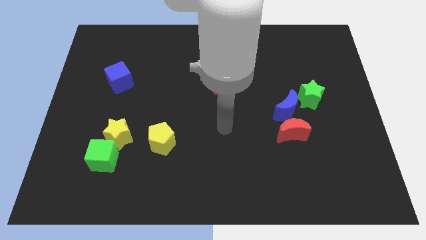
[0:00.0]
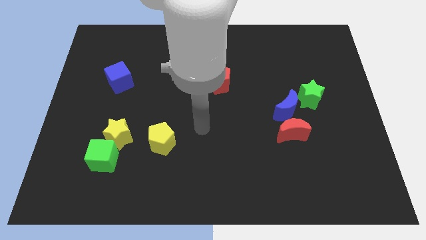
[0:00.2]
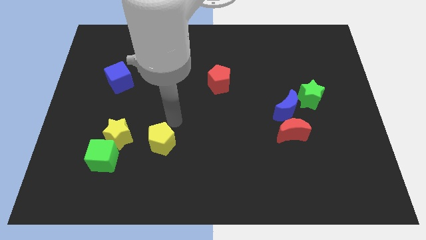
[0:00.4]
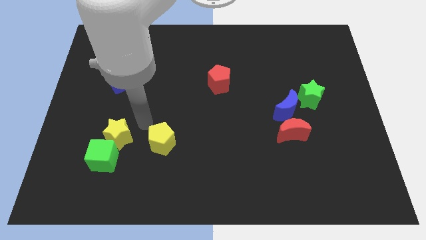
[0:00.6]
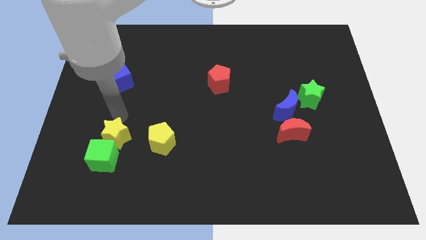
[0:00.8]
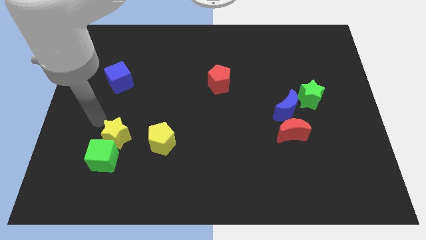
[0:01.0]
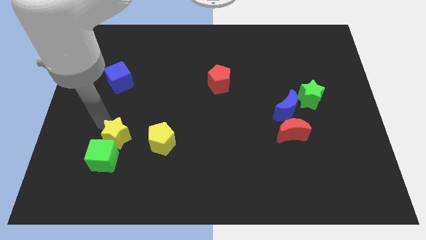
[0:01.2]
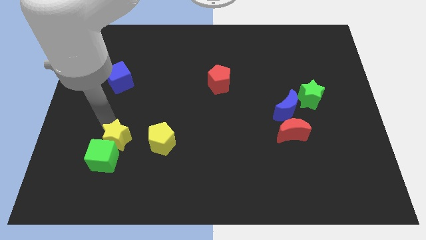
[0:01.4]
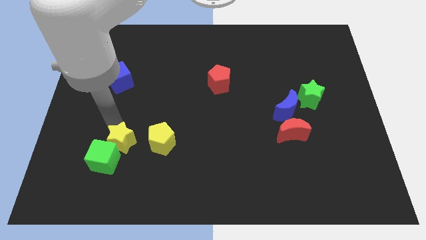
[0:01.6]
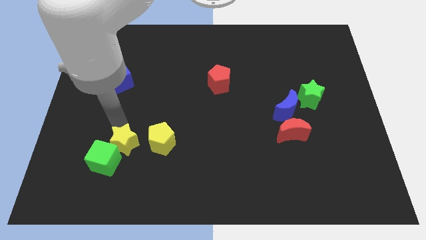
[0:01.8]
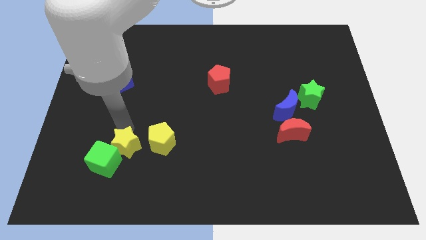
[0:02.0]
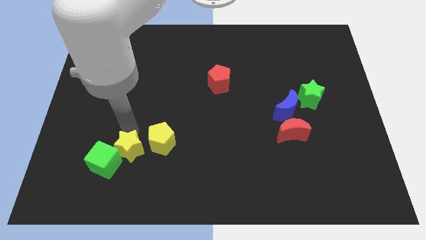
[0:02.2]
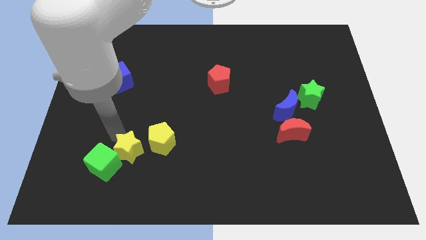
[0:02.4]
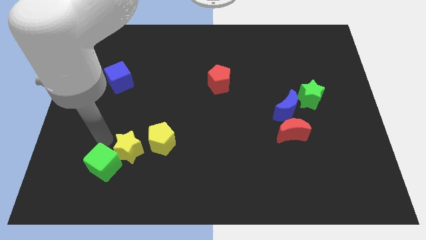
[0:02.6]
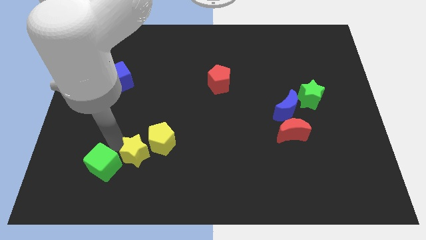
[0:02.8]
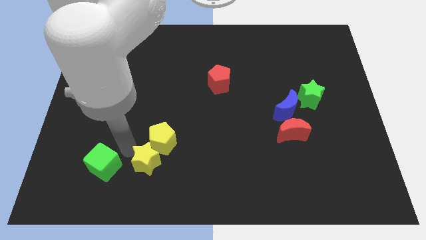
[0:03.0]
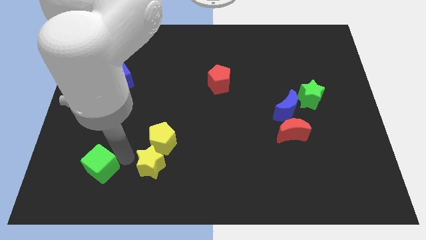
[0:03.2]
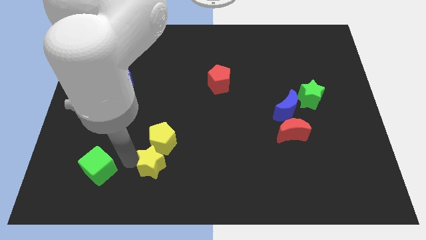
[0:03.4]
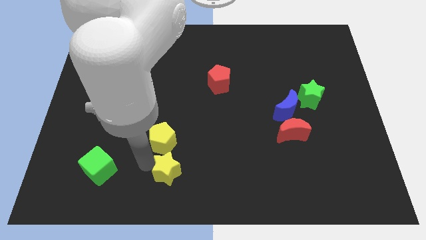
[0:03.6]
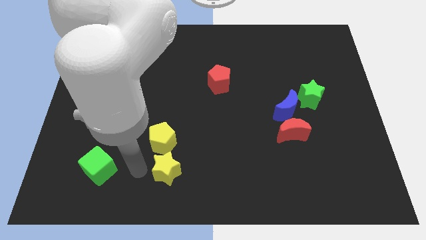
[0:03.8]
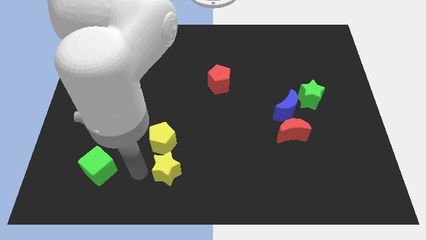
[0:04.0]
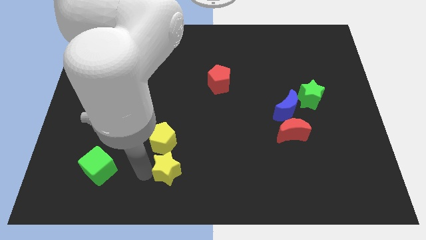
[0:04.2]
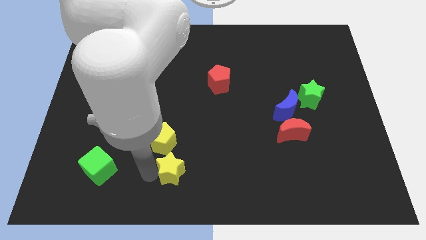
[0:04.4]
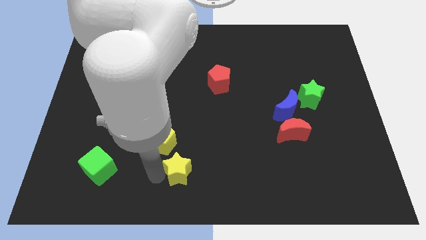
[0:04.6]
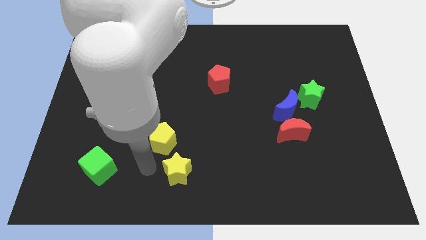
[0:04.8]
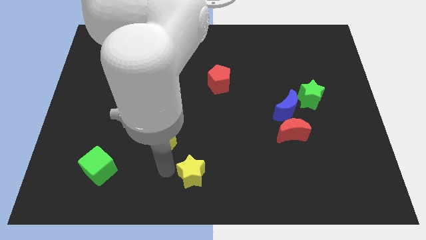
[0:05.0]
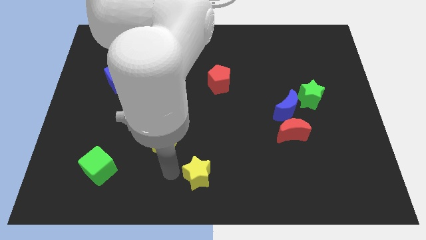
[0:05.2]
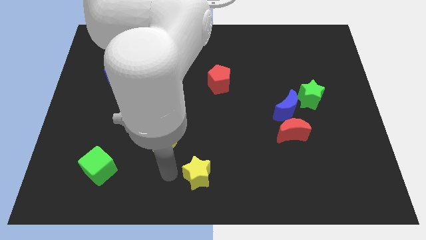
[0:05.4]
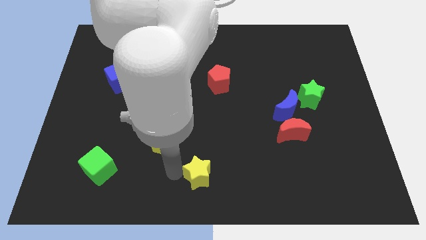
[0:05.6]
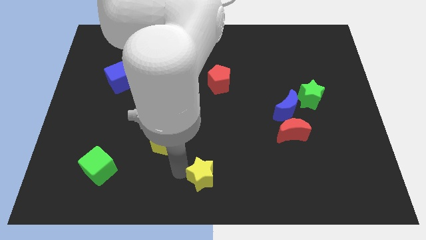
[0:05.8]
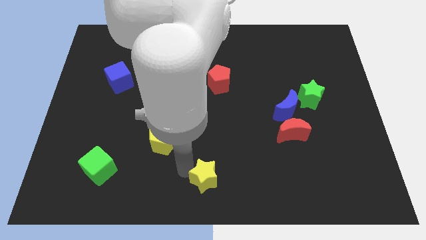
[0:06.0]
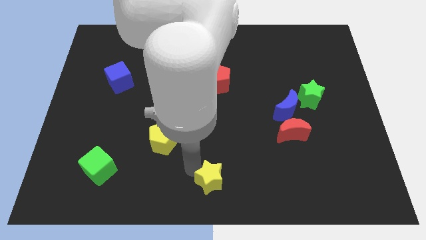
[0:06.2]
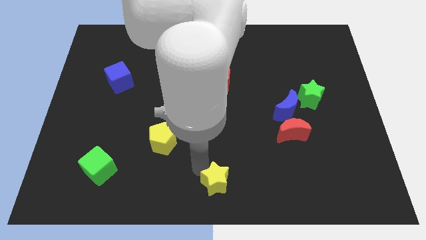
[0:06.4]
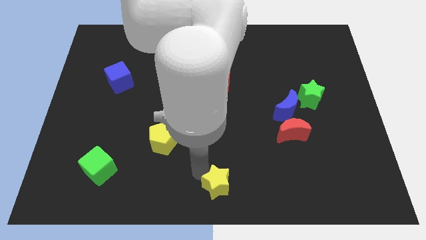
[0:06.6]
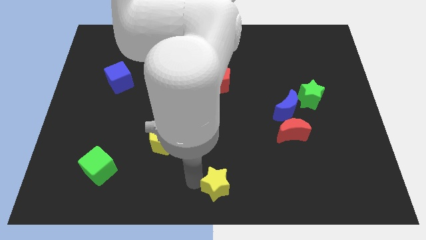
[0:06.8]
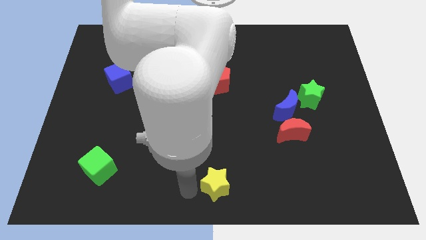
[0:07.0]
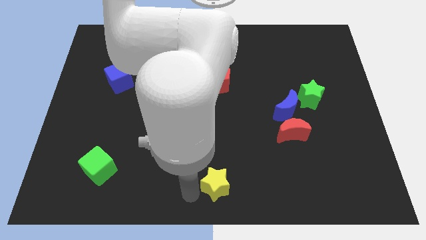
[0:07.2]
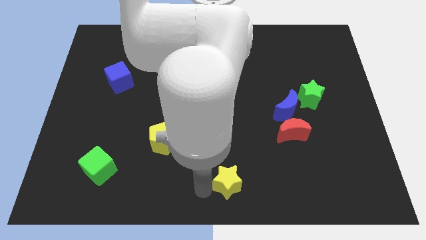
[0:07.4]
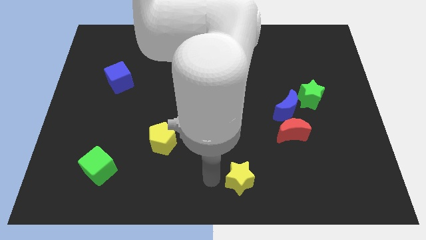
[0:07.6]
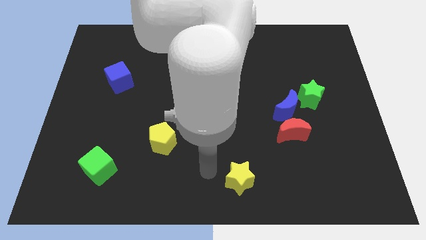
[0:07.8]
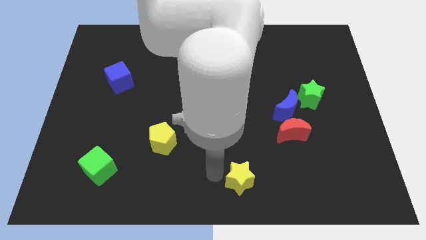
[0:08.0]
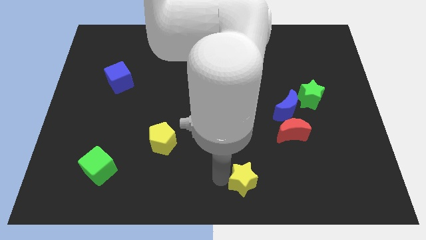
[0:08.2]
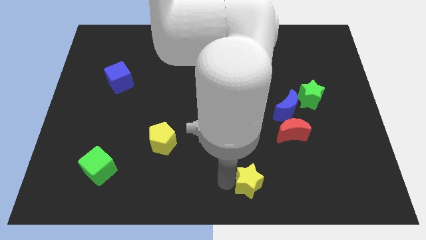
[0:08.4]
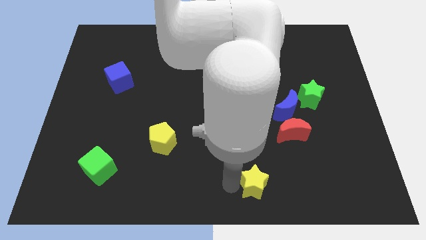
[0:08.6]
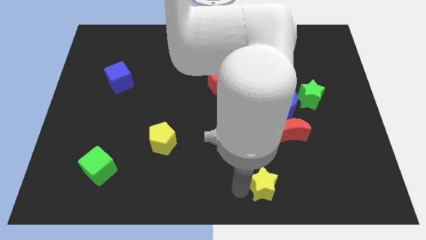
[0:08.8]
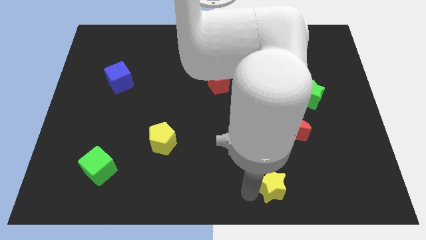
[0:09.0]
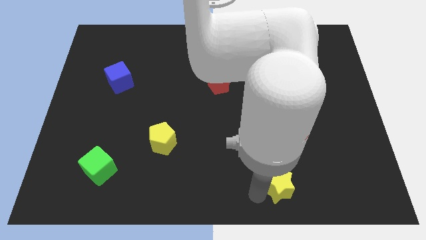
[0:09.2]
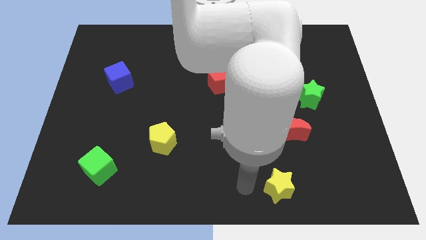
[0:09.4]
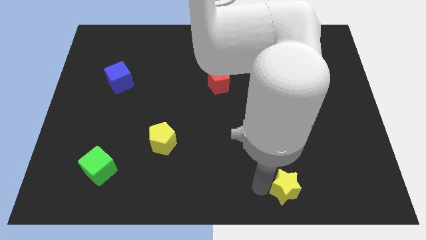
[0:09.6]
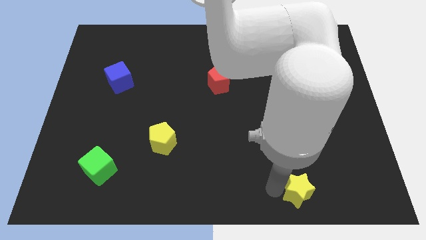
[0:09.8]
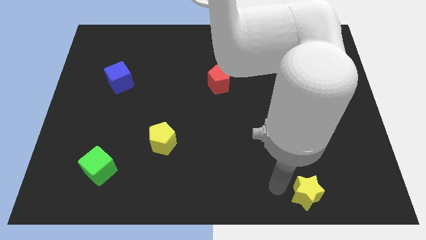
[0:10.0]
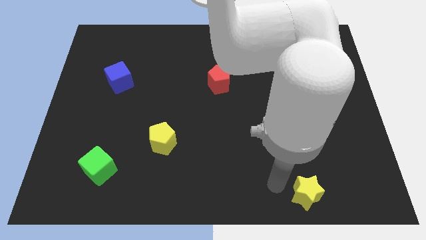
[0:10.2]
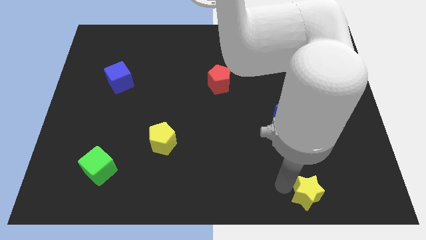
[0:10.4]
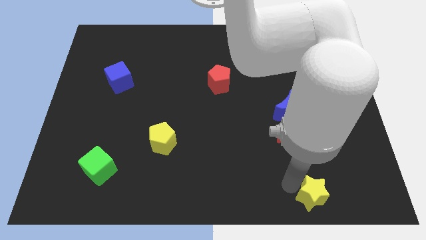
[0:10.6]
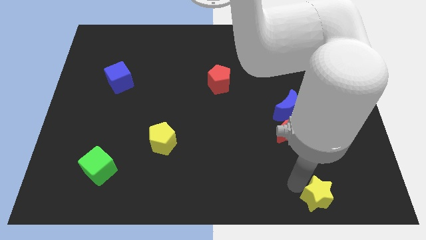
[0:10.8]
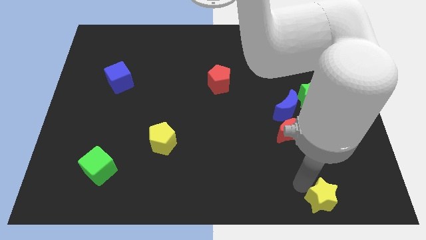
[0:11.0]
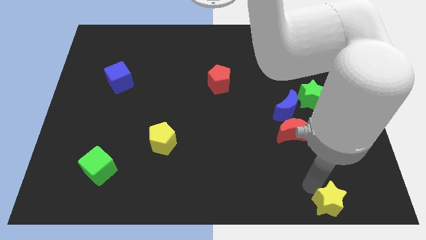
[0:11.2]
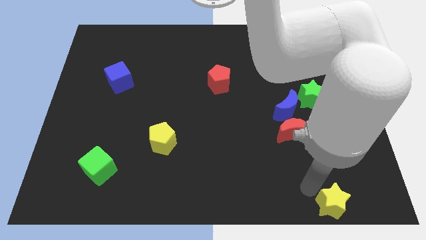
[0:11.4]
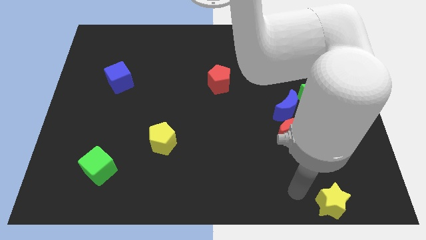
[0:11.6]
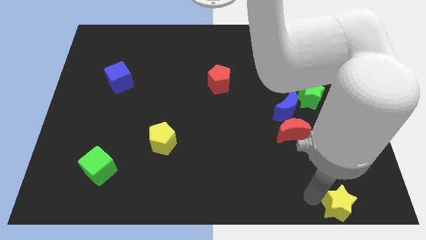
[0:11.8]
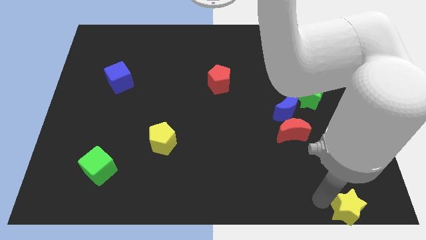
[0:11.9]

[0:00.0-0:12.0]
move the yellow star to the bottom right

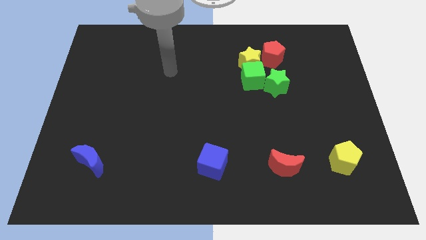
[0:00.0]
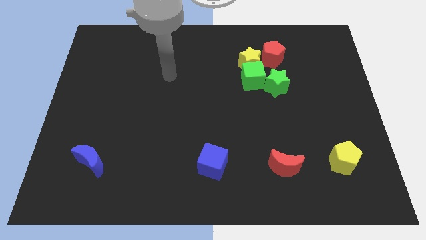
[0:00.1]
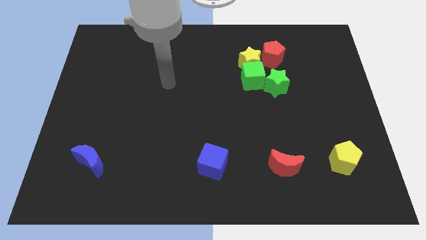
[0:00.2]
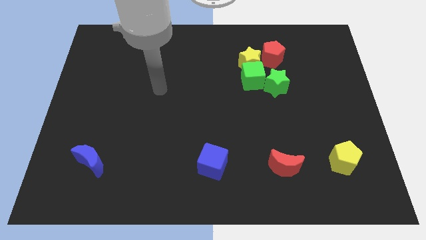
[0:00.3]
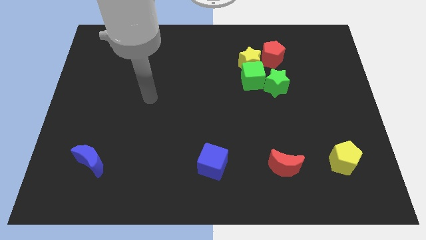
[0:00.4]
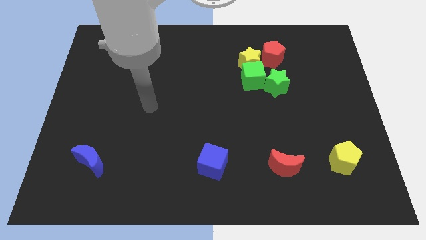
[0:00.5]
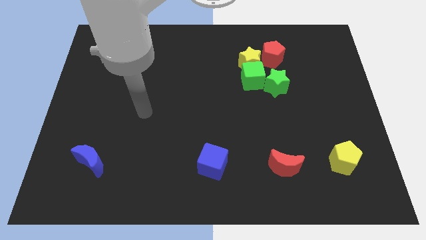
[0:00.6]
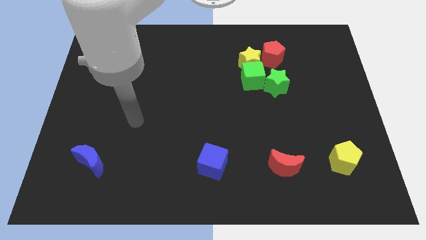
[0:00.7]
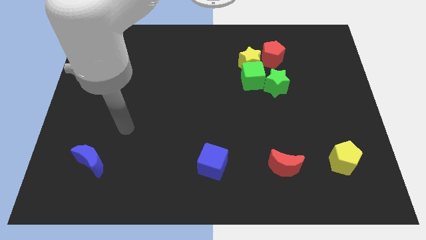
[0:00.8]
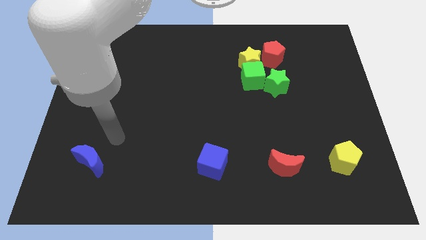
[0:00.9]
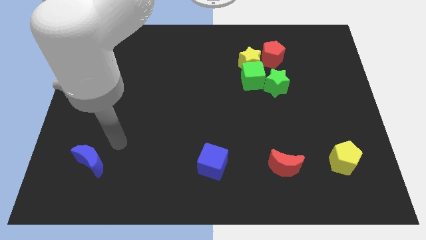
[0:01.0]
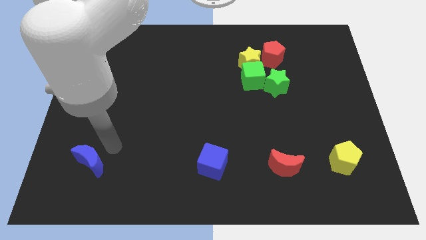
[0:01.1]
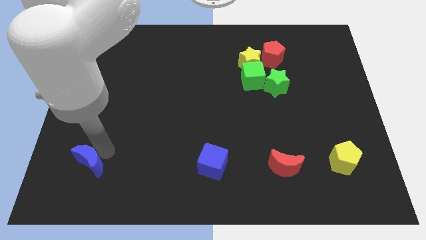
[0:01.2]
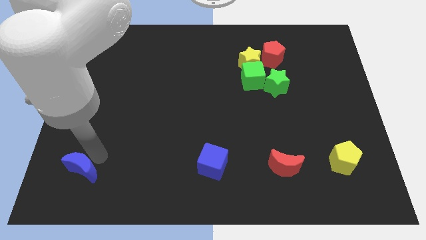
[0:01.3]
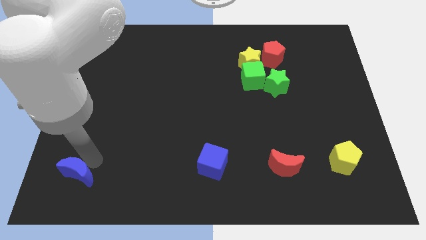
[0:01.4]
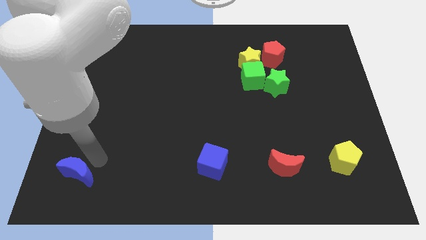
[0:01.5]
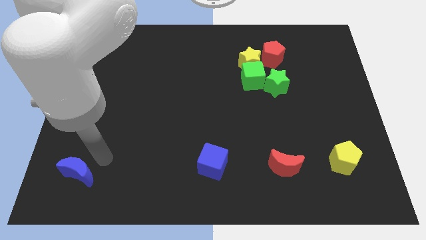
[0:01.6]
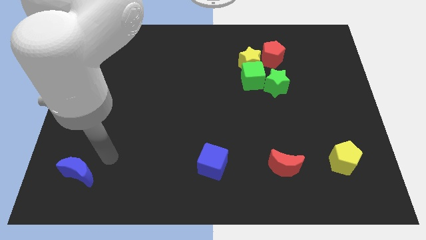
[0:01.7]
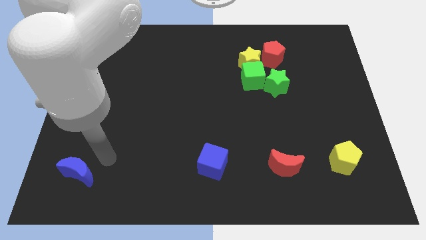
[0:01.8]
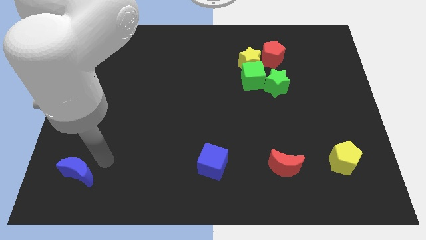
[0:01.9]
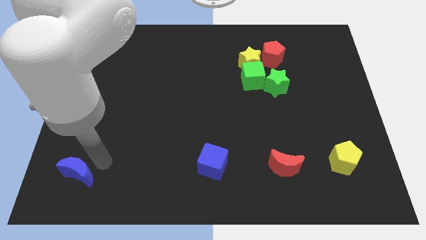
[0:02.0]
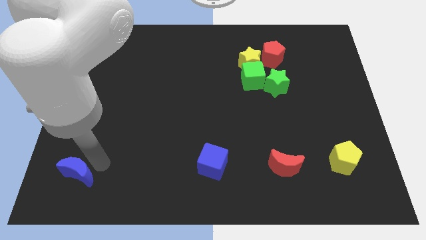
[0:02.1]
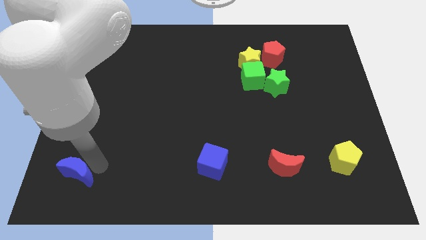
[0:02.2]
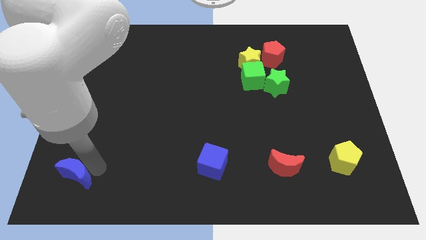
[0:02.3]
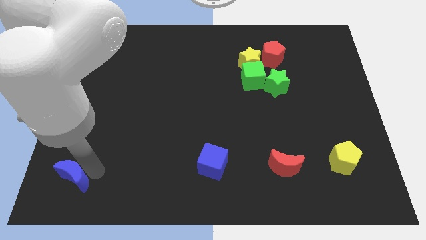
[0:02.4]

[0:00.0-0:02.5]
slide the blue moon to the bottom left
